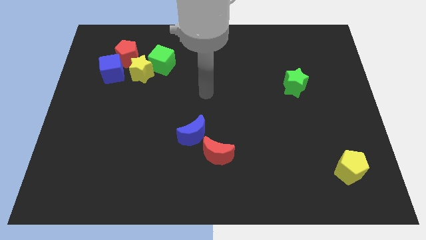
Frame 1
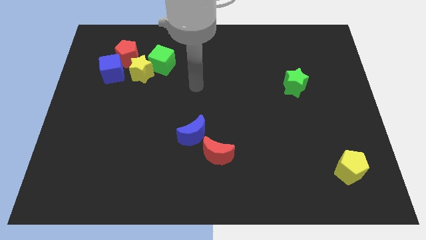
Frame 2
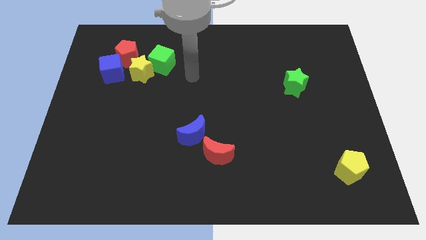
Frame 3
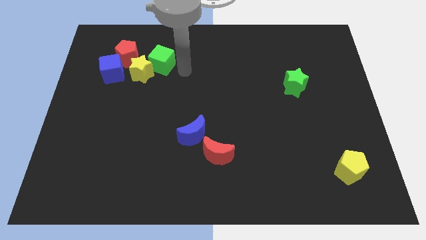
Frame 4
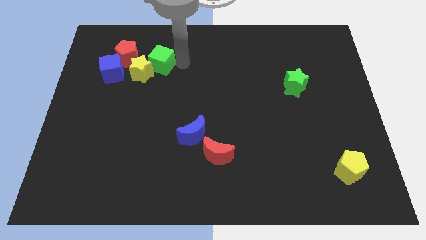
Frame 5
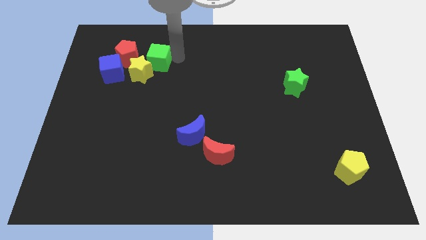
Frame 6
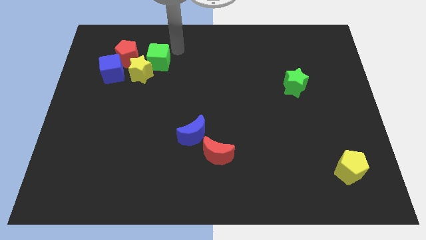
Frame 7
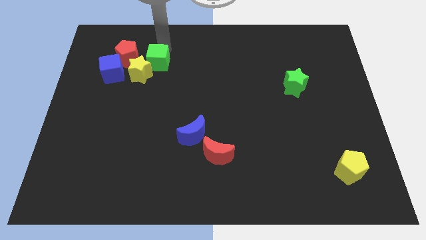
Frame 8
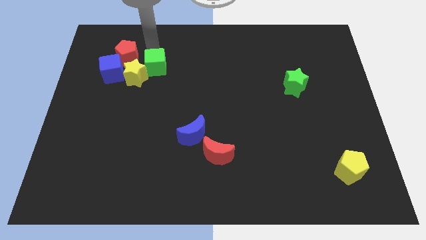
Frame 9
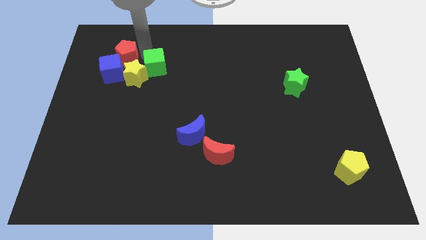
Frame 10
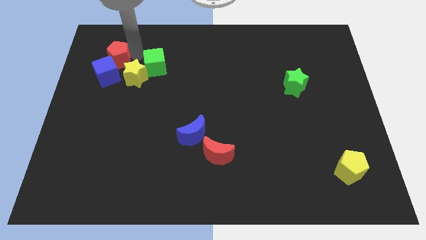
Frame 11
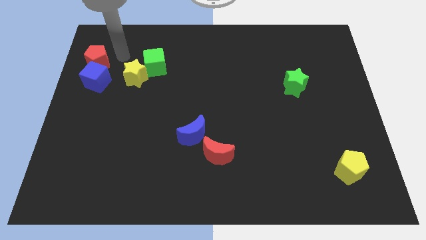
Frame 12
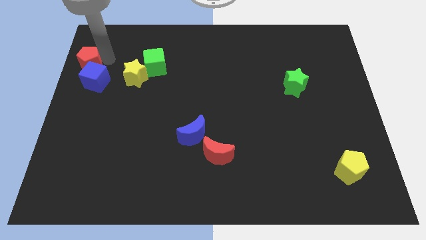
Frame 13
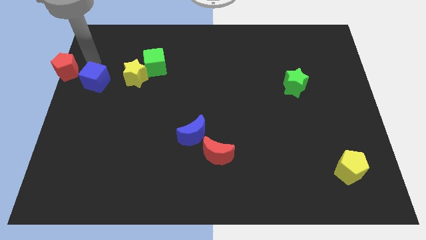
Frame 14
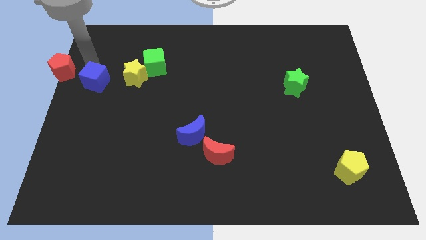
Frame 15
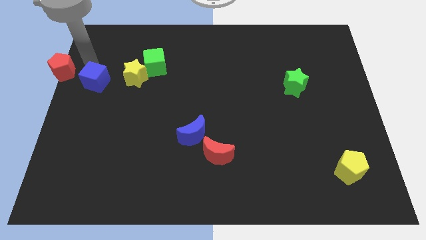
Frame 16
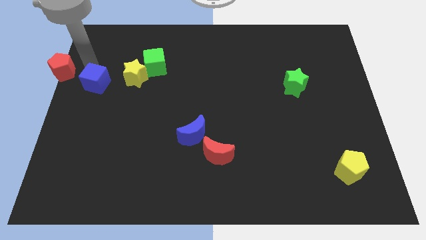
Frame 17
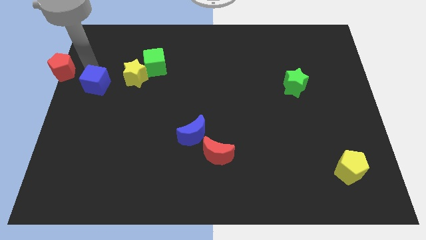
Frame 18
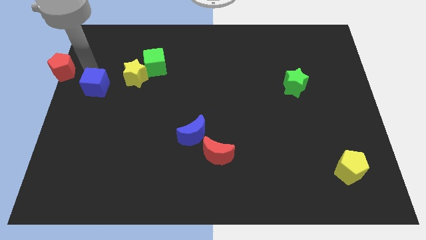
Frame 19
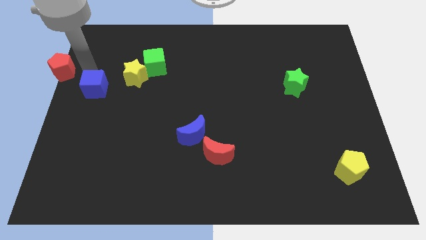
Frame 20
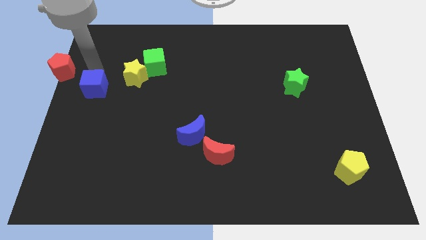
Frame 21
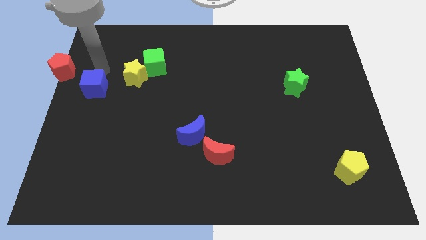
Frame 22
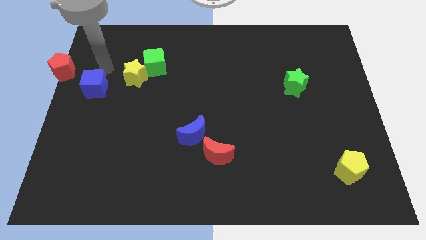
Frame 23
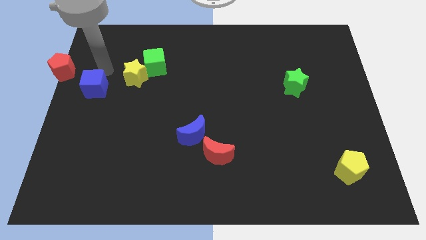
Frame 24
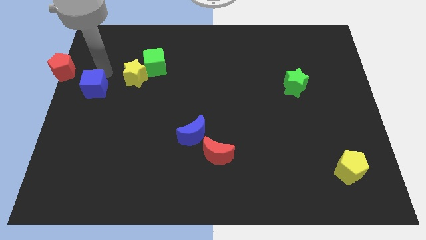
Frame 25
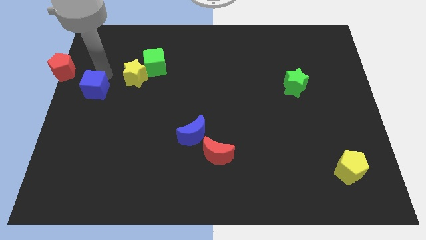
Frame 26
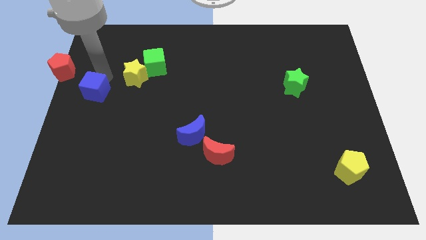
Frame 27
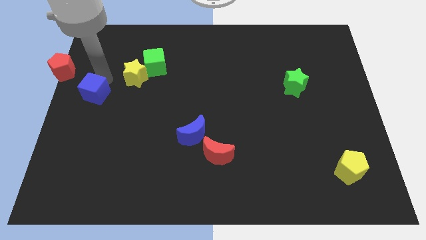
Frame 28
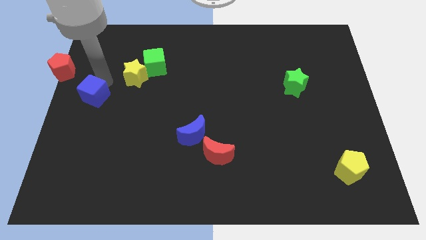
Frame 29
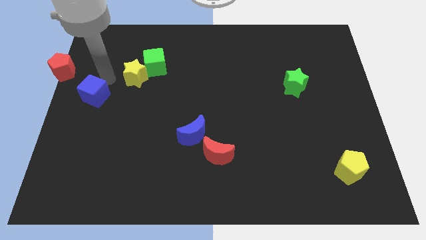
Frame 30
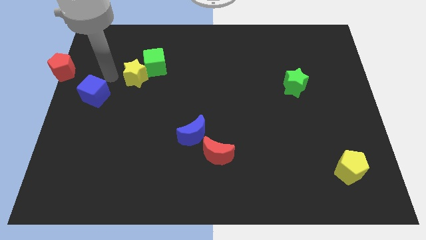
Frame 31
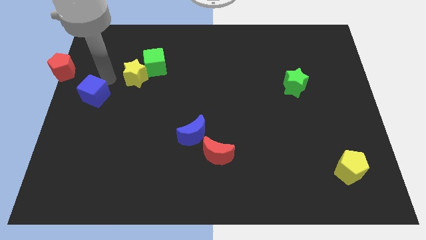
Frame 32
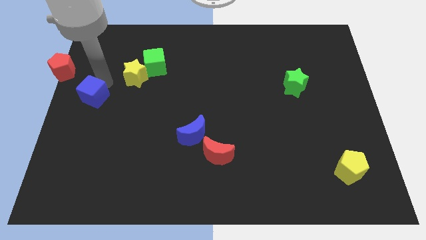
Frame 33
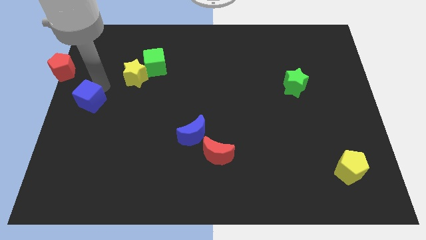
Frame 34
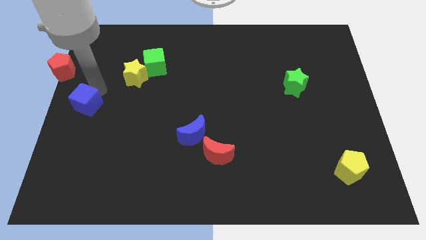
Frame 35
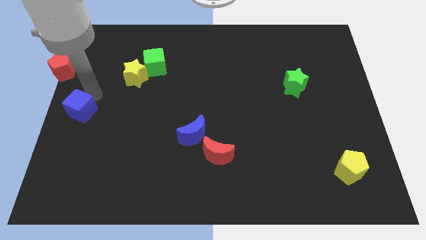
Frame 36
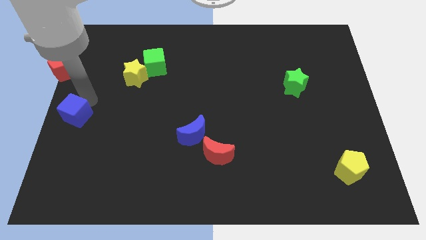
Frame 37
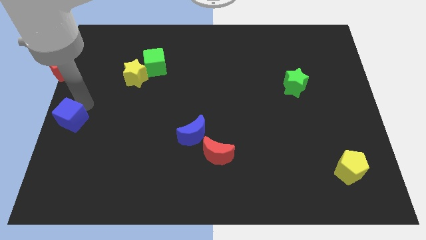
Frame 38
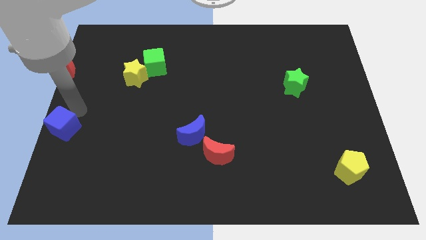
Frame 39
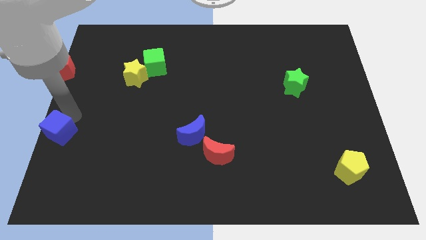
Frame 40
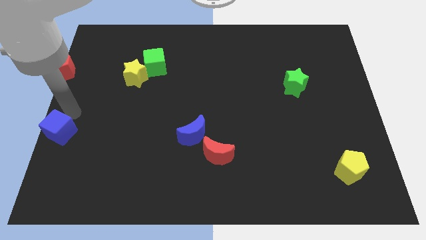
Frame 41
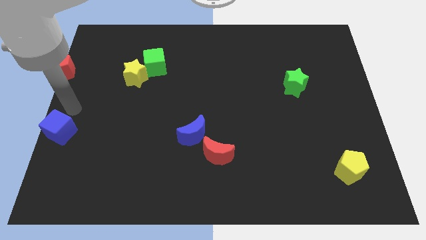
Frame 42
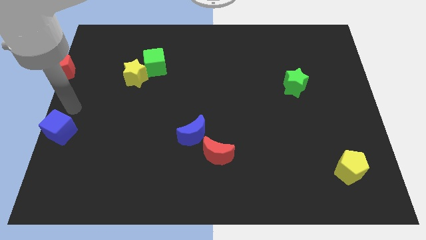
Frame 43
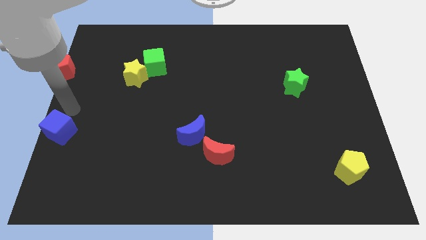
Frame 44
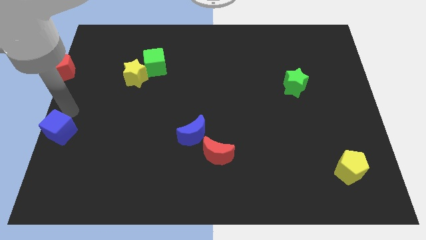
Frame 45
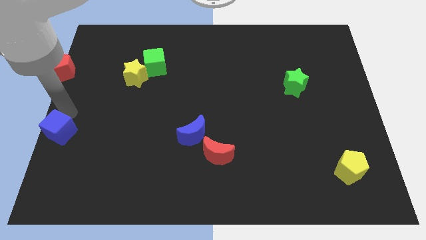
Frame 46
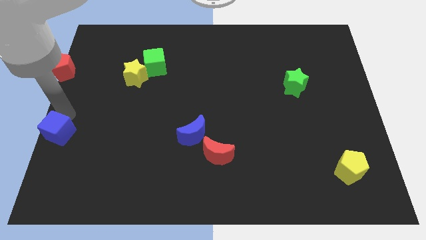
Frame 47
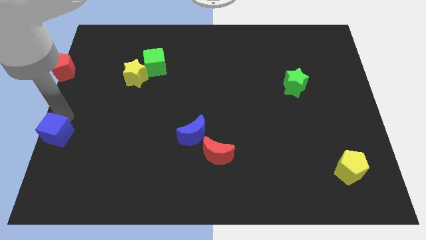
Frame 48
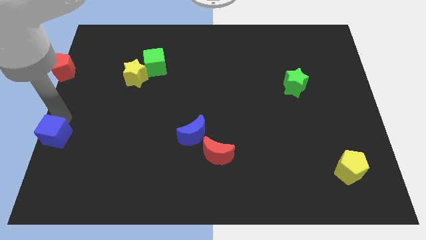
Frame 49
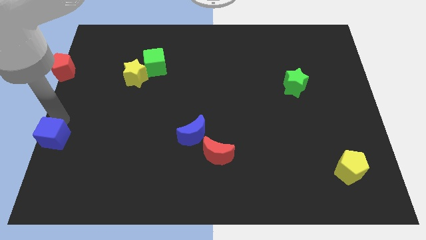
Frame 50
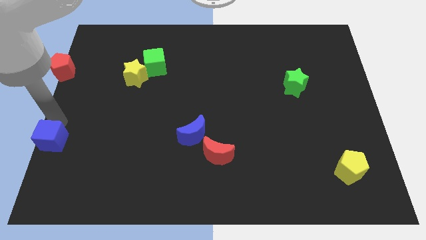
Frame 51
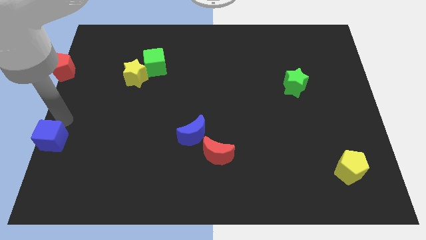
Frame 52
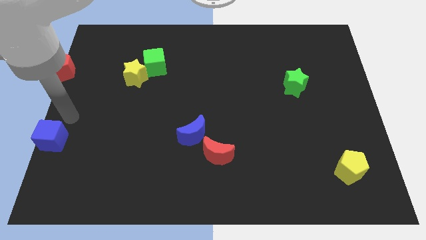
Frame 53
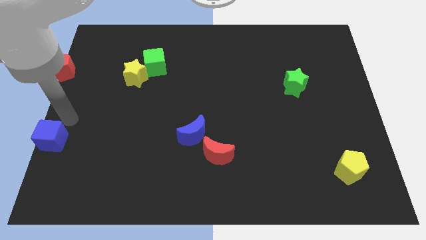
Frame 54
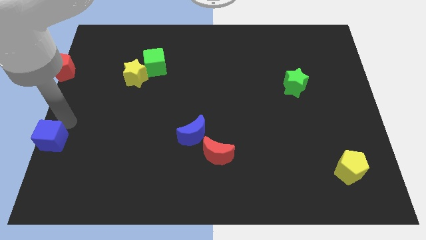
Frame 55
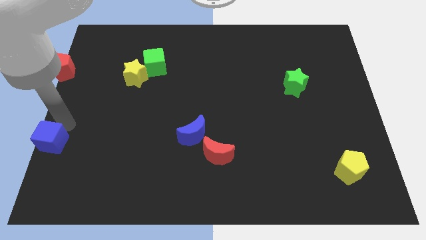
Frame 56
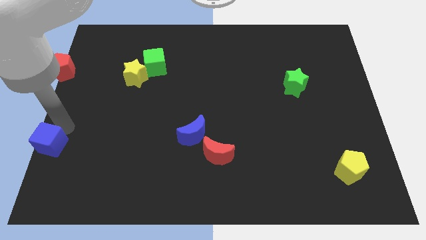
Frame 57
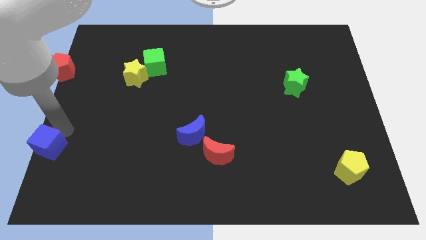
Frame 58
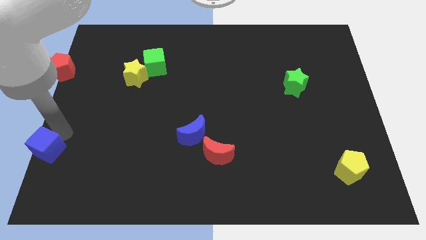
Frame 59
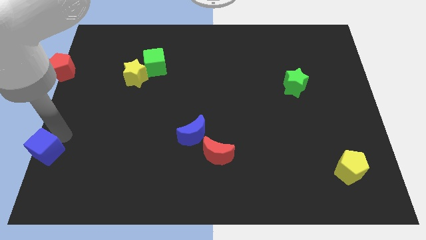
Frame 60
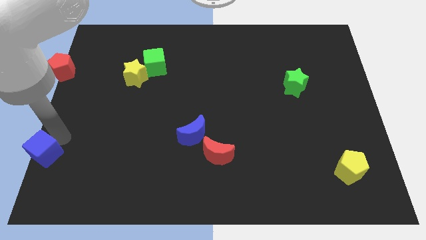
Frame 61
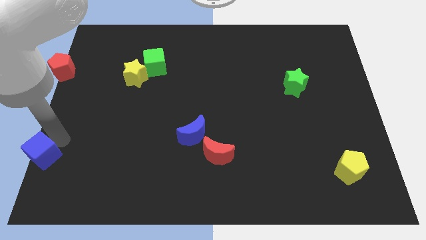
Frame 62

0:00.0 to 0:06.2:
put the blue cube to the bottom left corner
